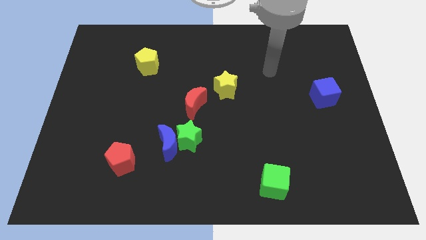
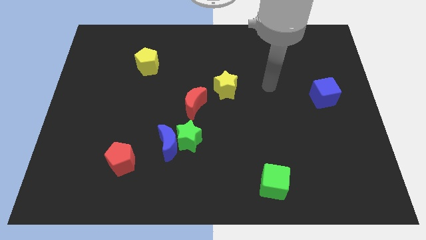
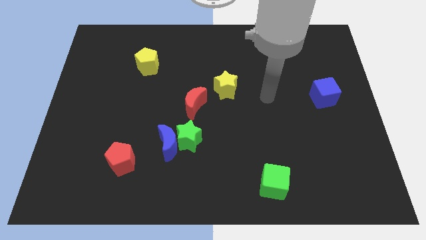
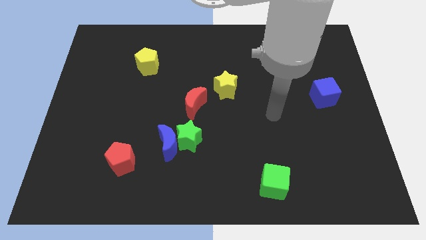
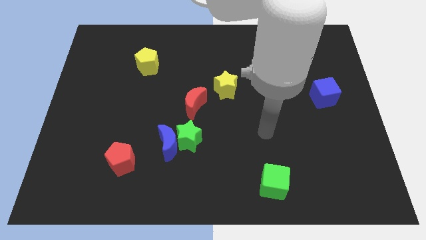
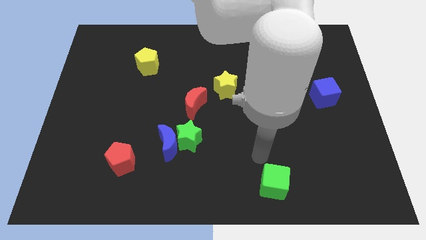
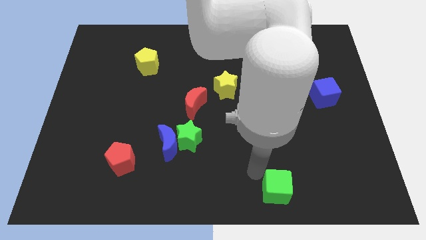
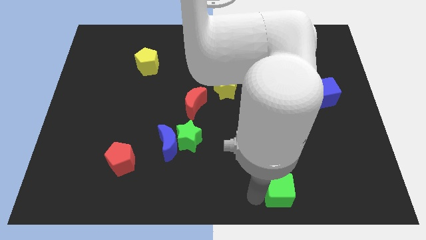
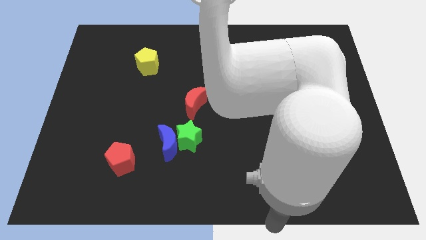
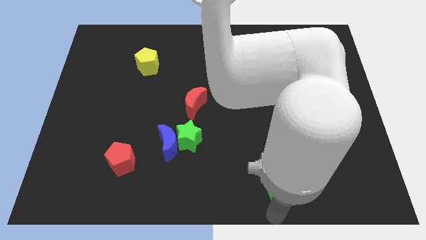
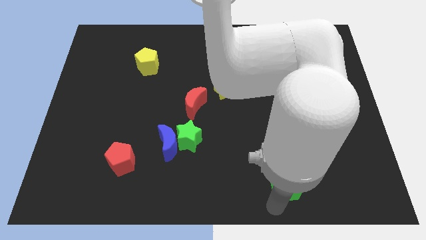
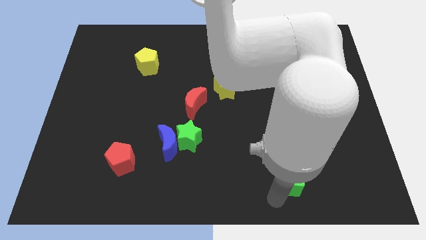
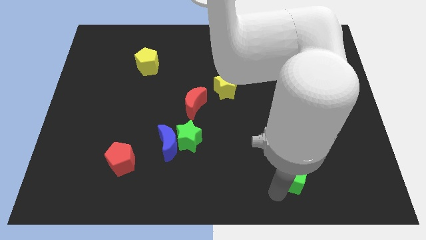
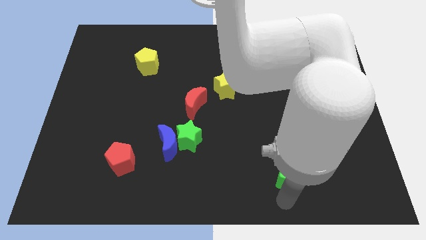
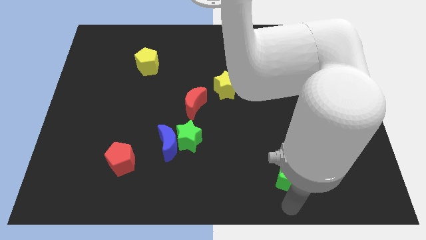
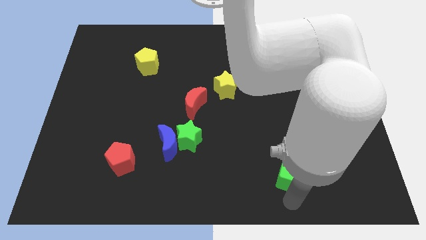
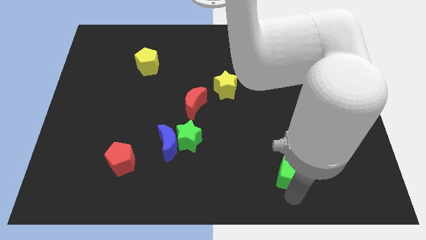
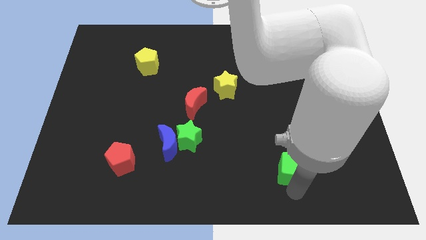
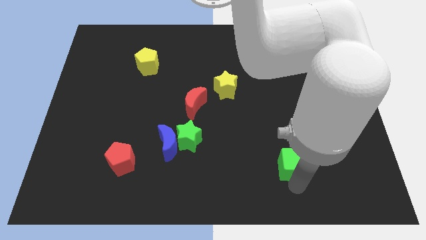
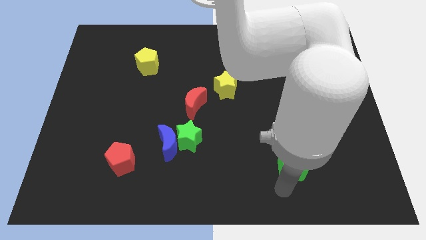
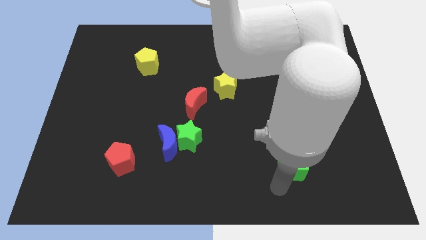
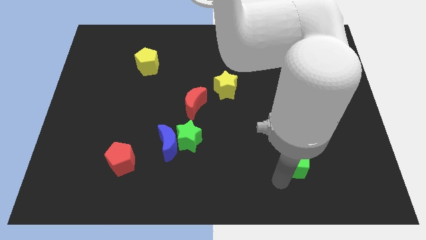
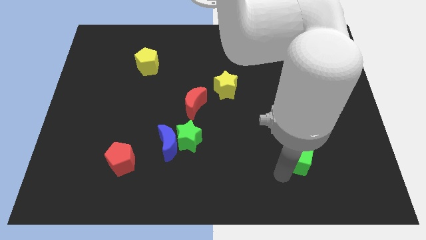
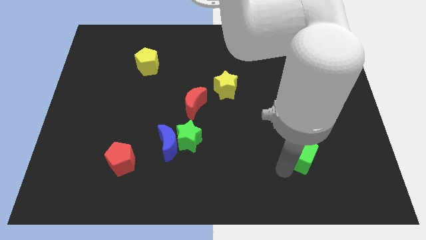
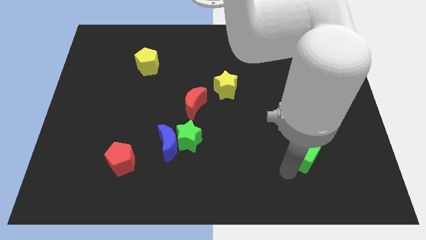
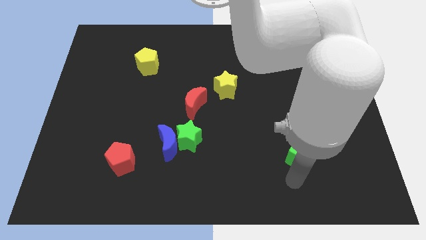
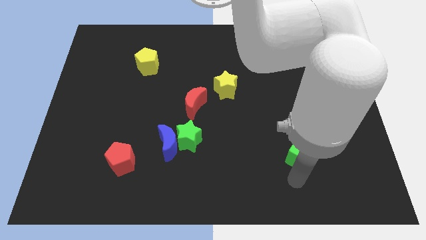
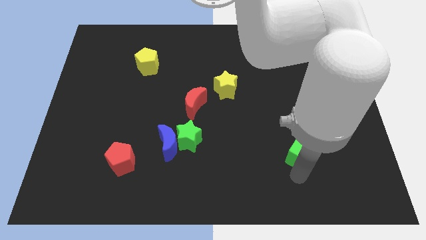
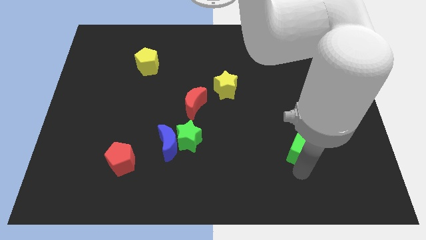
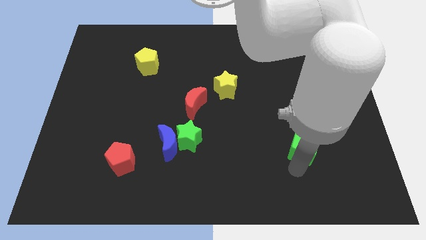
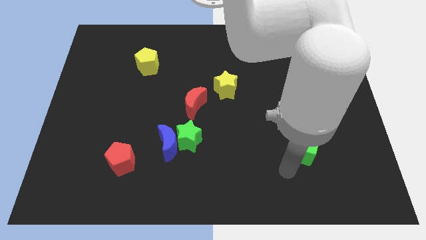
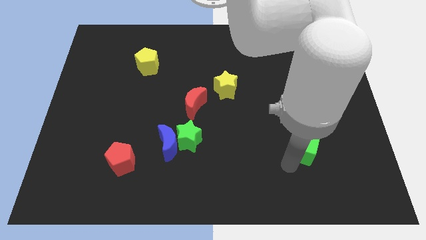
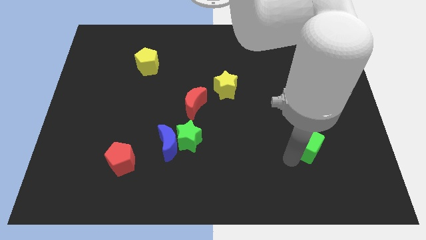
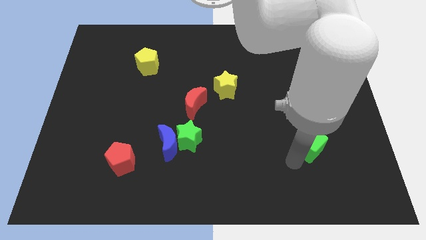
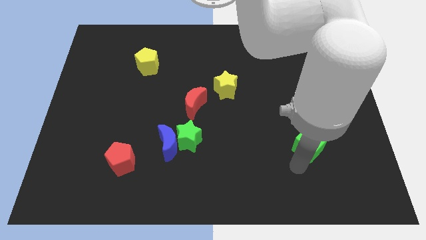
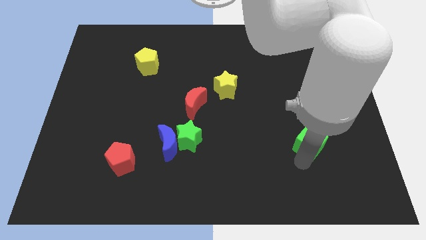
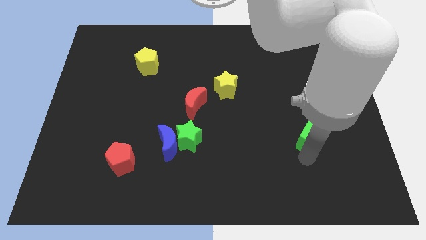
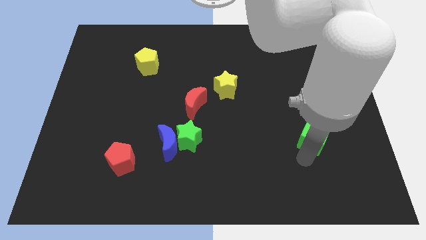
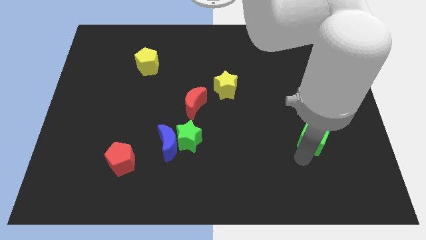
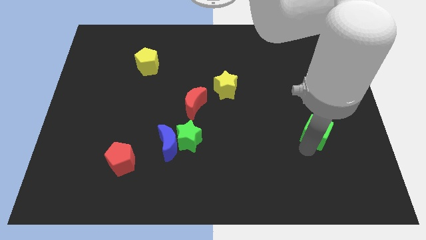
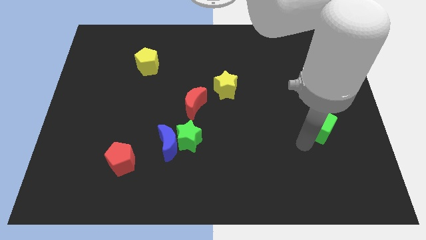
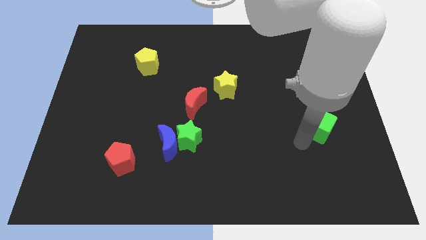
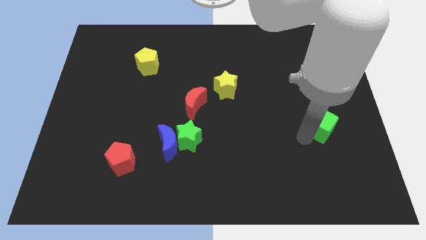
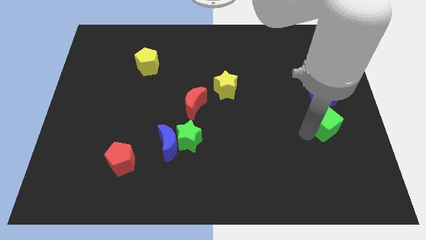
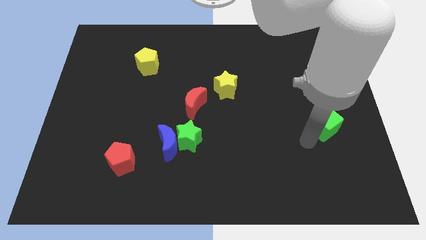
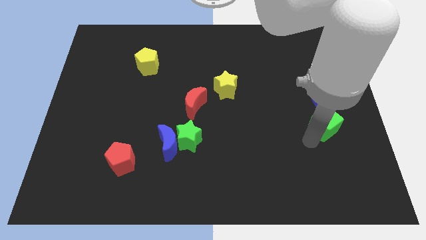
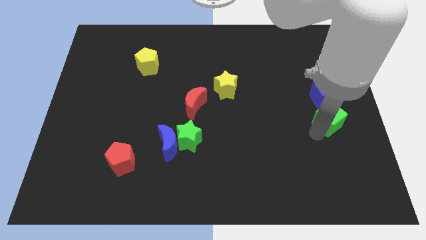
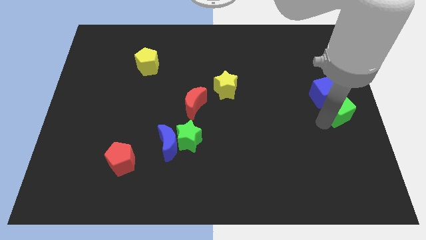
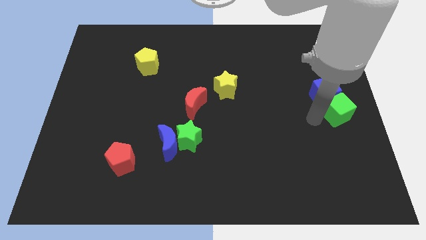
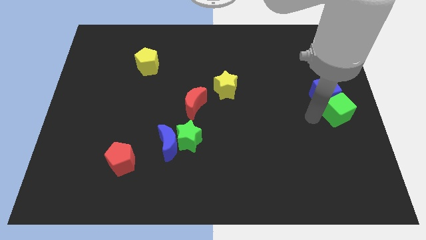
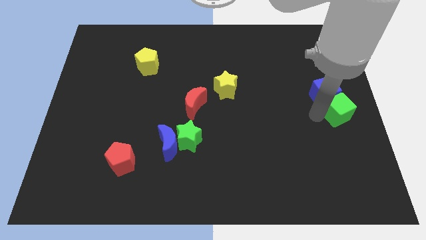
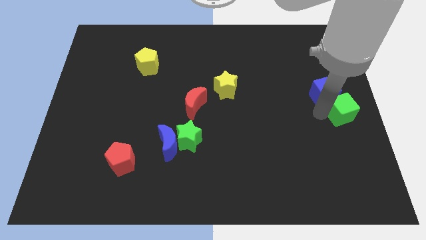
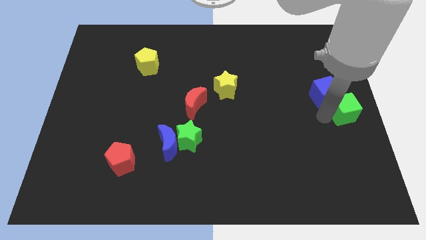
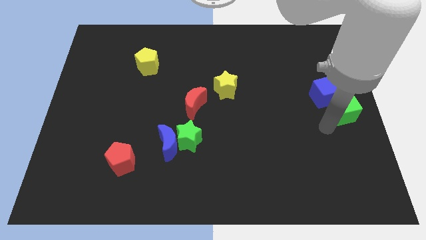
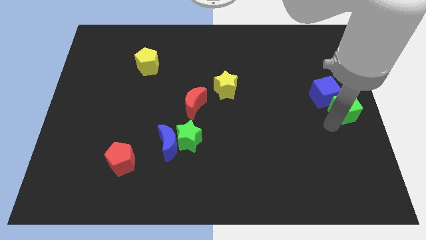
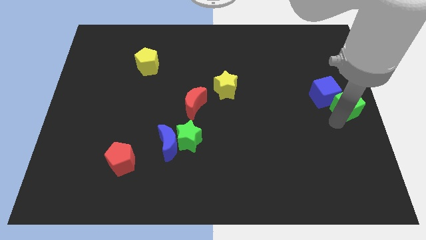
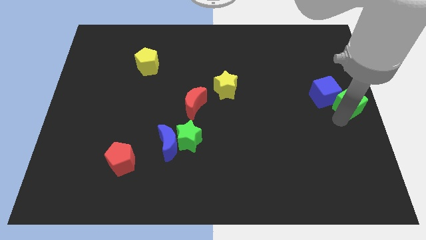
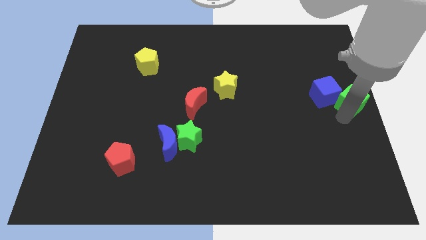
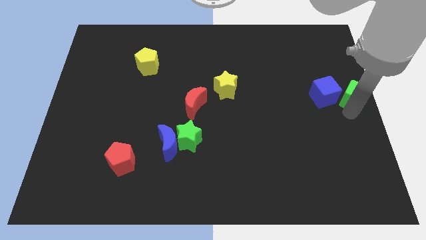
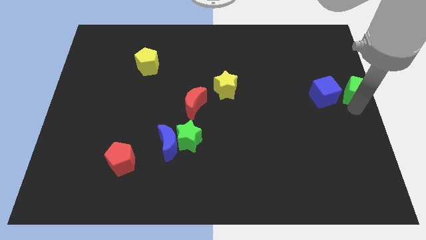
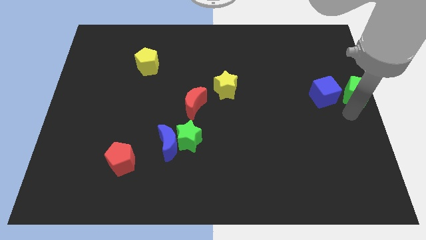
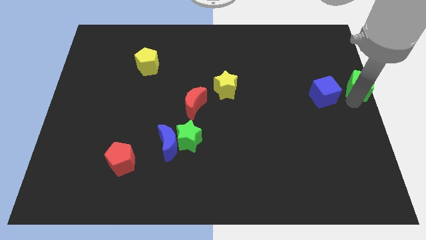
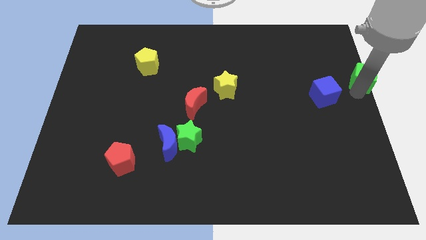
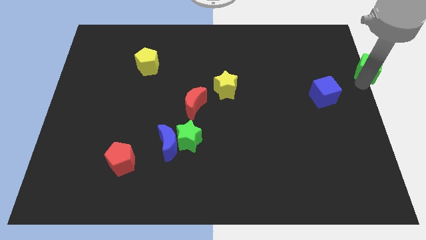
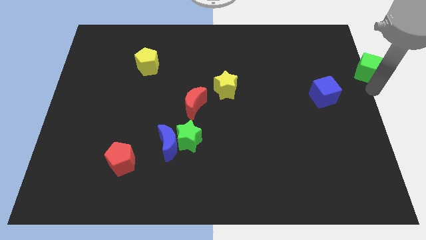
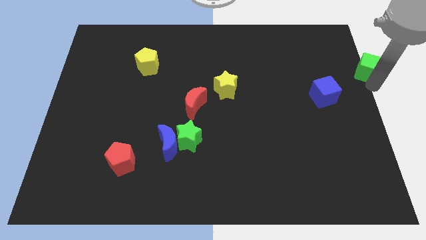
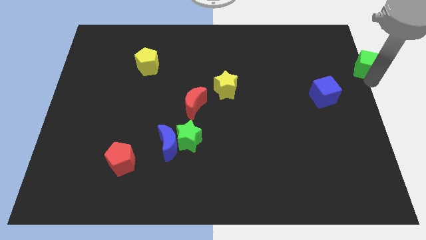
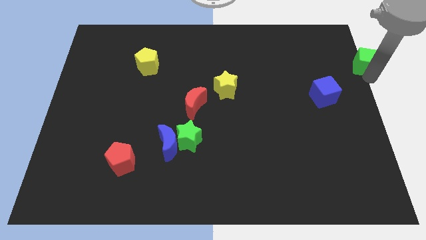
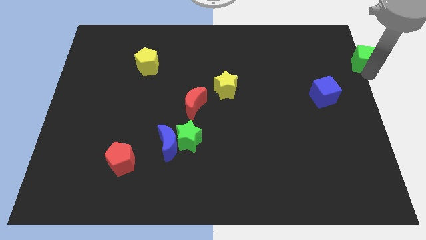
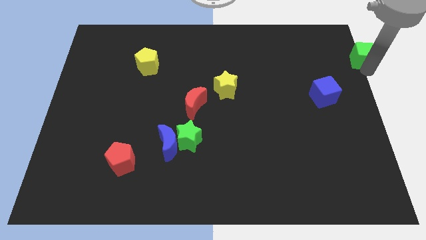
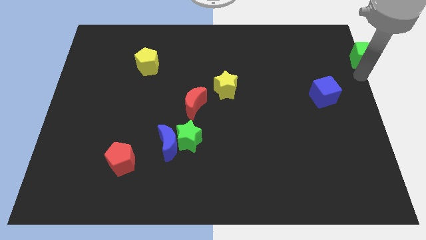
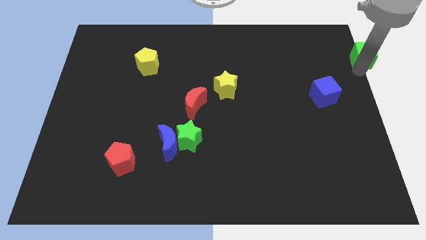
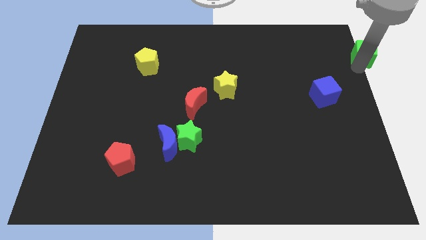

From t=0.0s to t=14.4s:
put the green cube to the upper right corner
